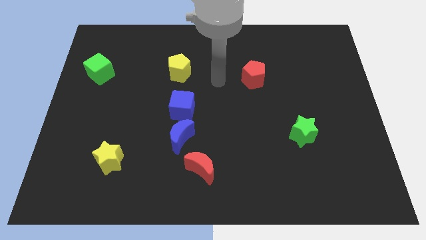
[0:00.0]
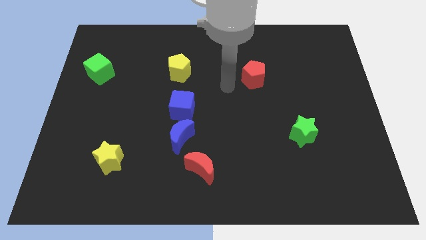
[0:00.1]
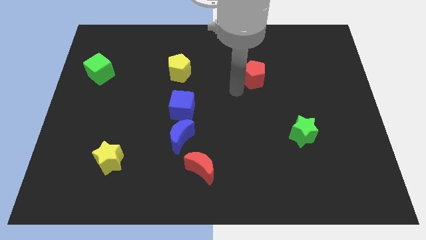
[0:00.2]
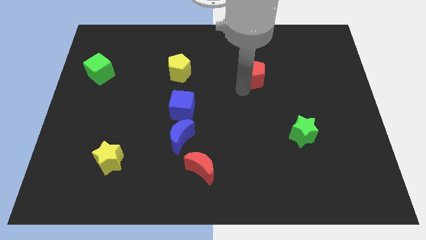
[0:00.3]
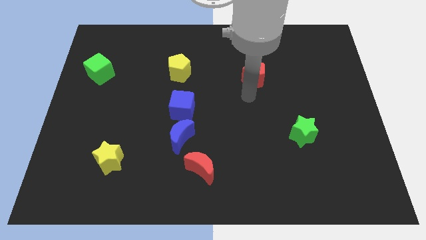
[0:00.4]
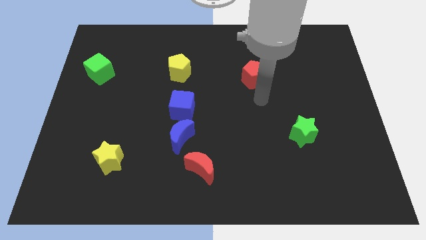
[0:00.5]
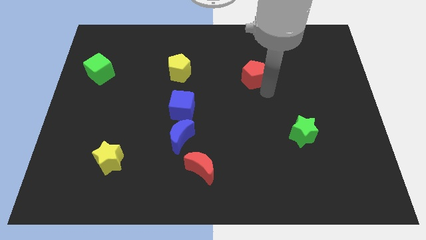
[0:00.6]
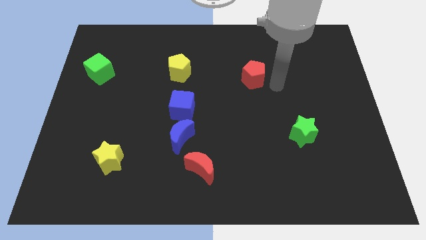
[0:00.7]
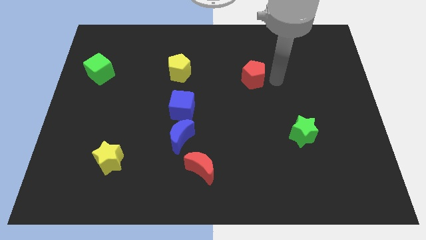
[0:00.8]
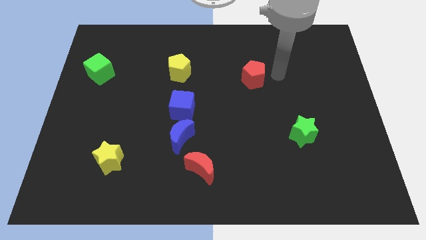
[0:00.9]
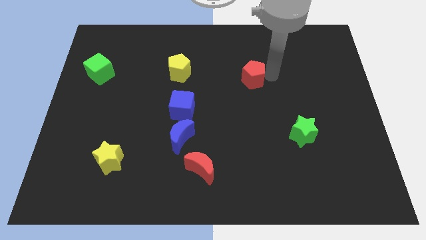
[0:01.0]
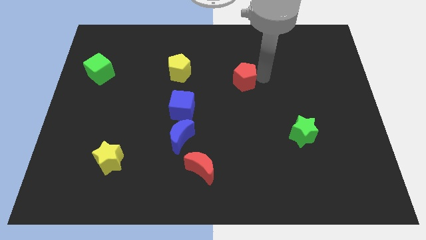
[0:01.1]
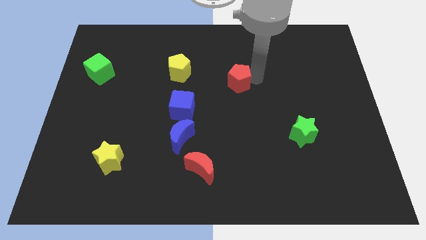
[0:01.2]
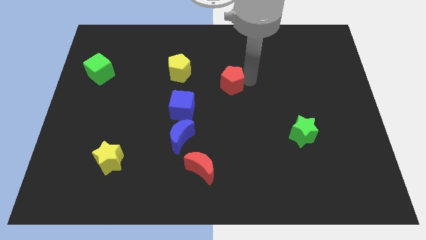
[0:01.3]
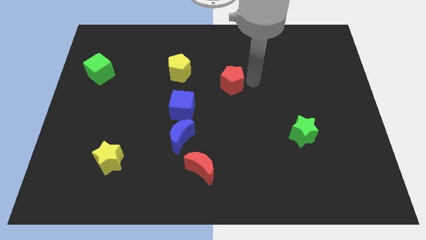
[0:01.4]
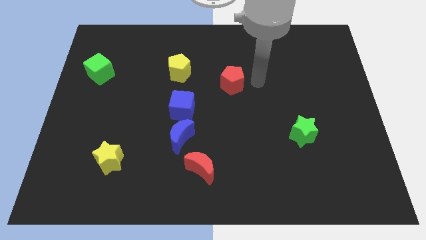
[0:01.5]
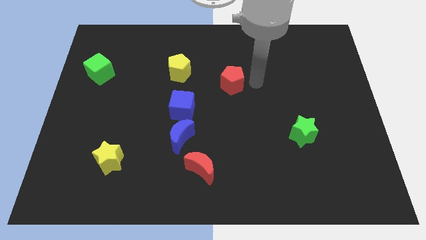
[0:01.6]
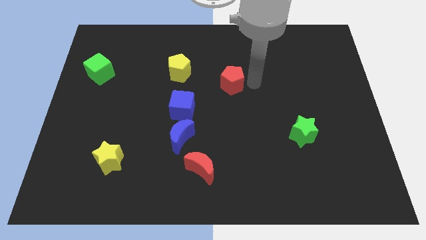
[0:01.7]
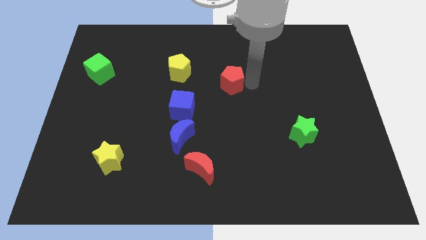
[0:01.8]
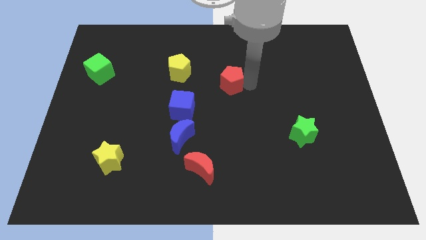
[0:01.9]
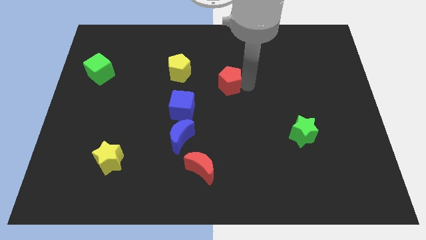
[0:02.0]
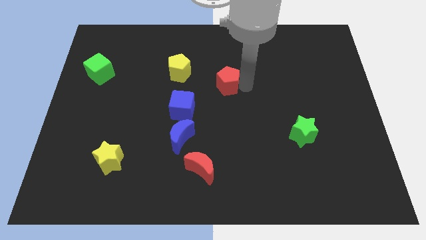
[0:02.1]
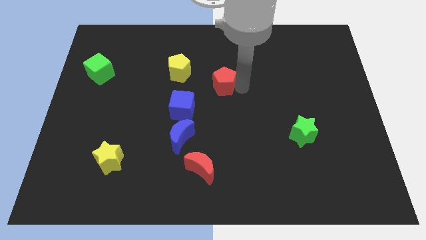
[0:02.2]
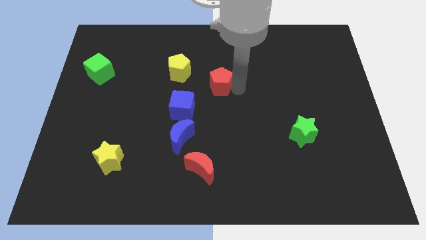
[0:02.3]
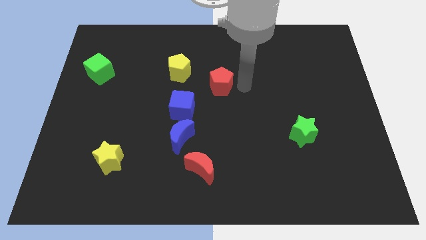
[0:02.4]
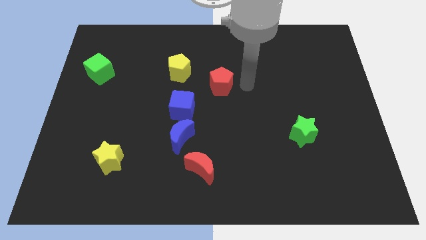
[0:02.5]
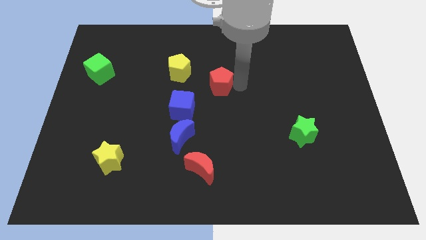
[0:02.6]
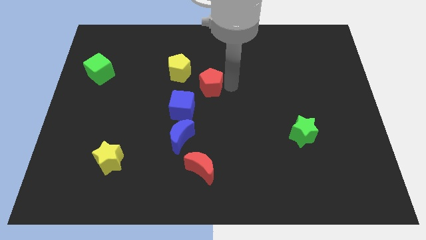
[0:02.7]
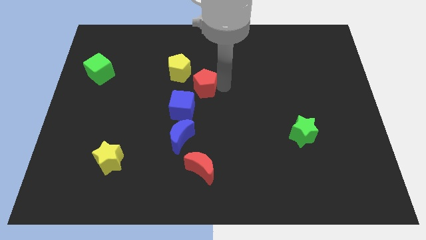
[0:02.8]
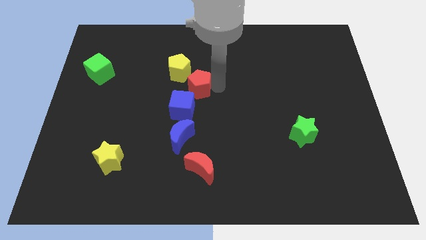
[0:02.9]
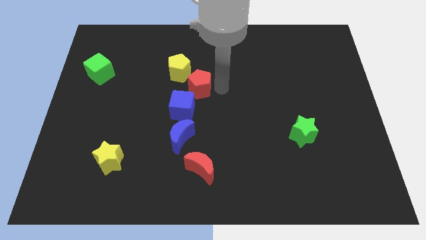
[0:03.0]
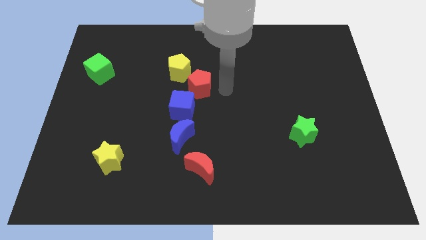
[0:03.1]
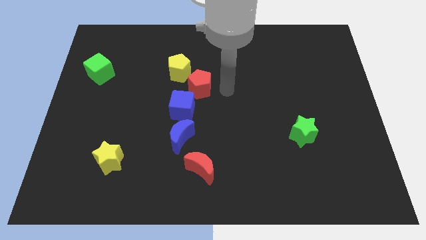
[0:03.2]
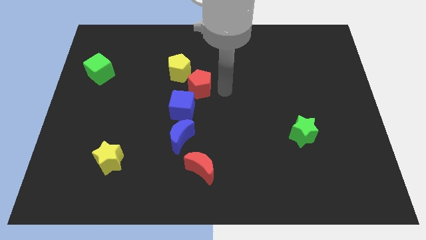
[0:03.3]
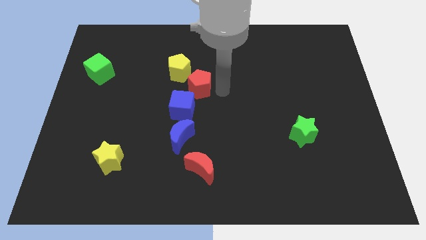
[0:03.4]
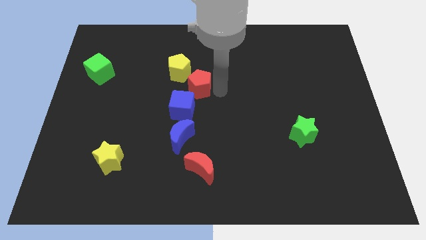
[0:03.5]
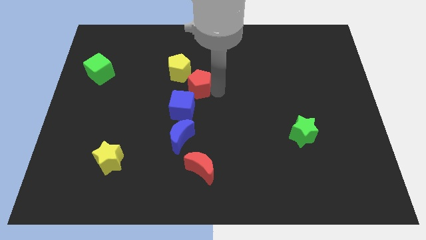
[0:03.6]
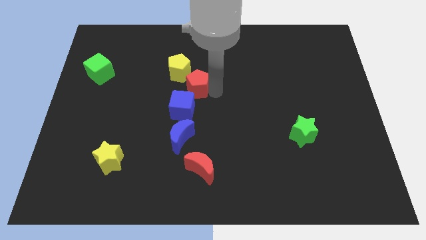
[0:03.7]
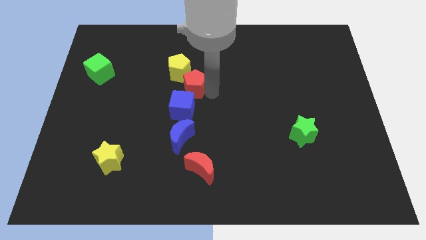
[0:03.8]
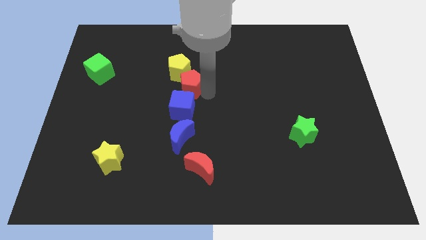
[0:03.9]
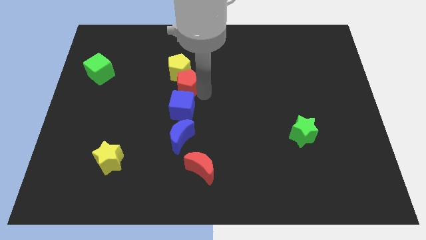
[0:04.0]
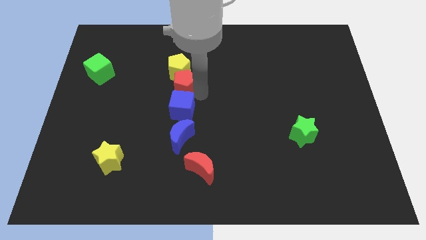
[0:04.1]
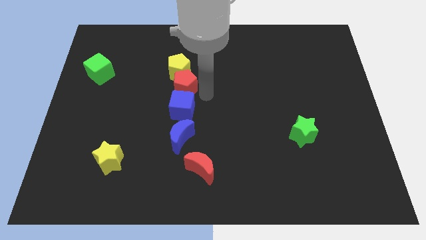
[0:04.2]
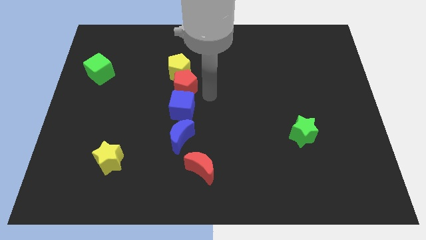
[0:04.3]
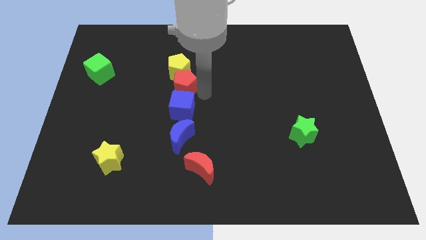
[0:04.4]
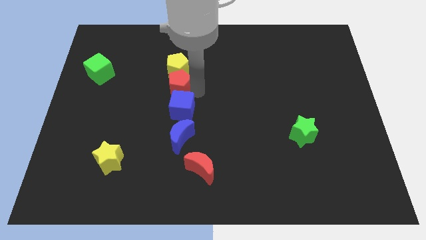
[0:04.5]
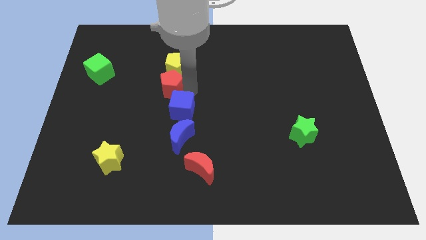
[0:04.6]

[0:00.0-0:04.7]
push the red pentagon to the left

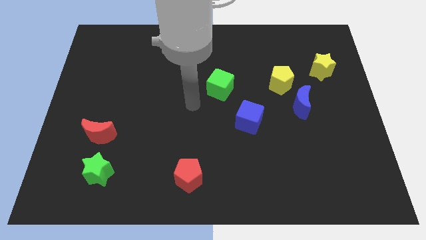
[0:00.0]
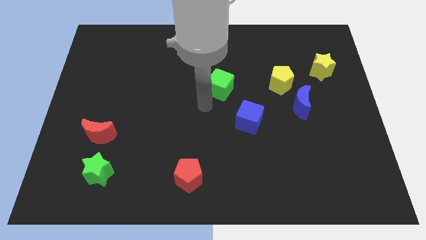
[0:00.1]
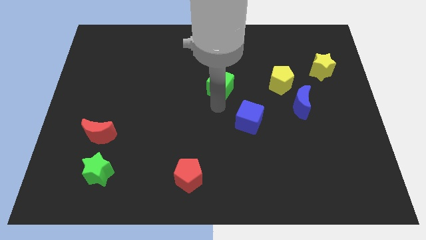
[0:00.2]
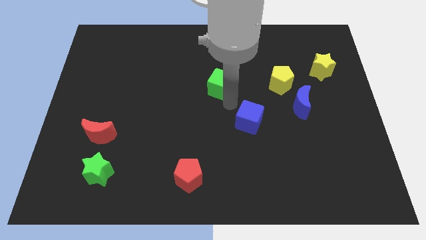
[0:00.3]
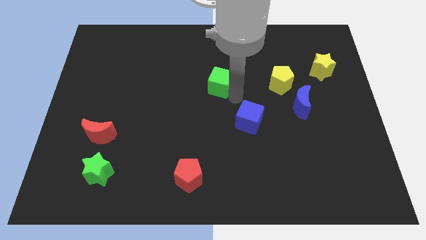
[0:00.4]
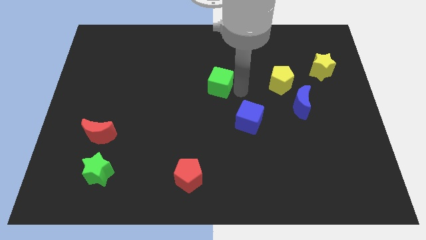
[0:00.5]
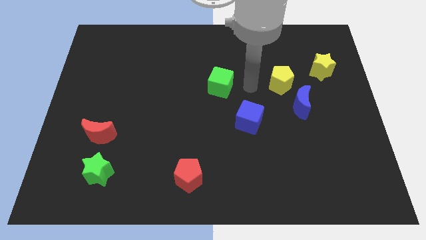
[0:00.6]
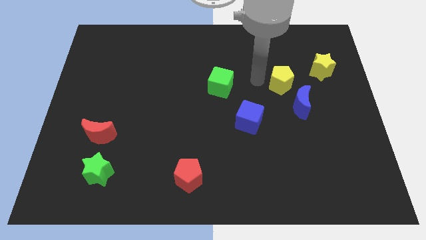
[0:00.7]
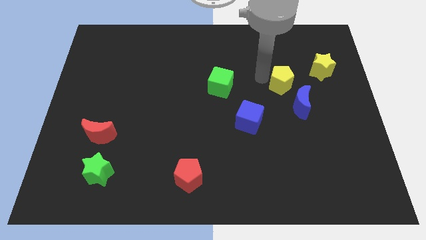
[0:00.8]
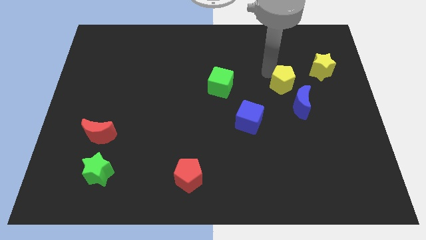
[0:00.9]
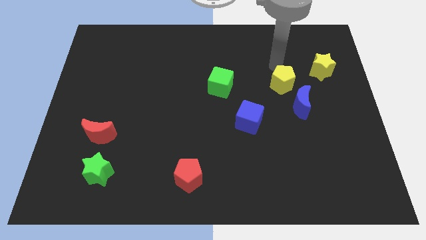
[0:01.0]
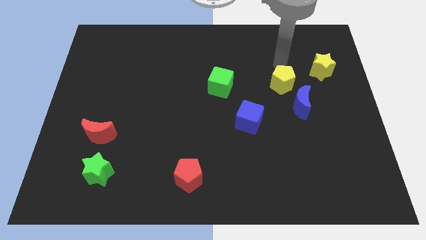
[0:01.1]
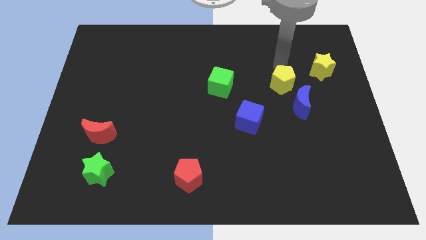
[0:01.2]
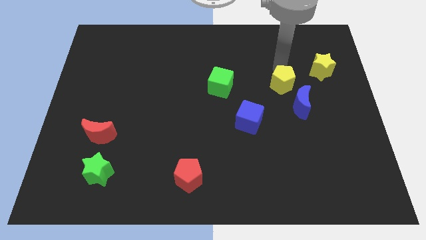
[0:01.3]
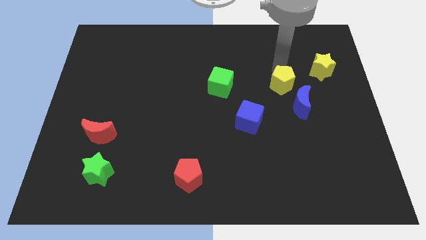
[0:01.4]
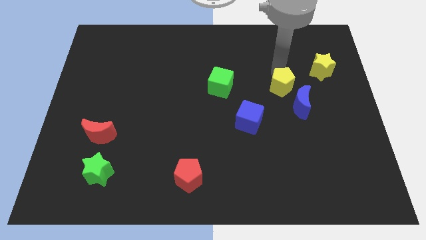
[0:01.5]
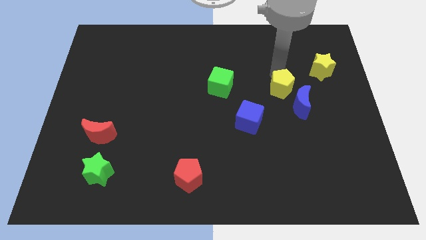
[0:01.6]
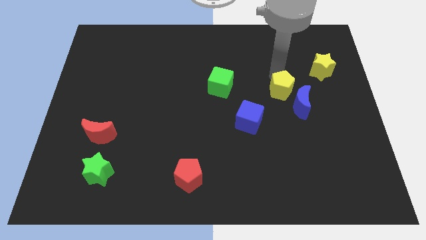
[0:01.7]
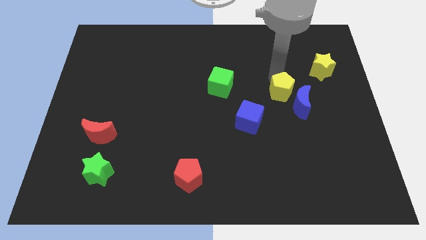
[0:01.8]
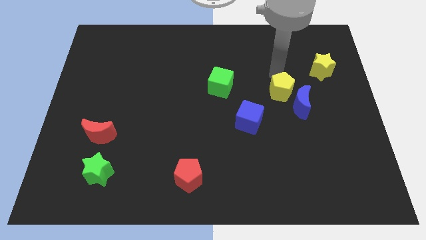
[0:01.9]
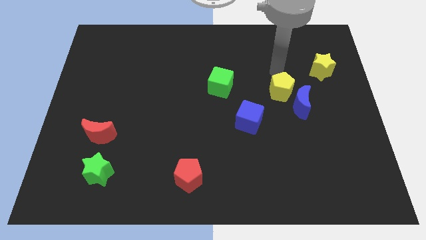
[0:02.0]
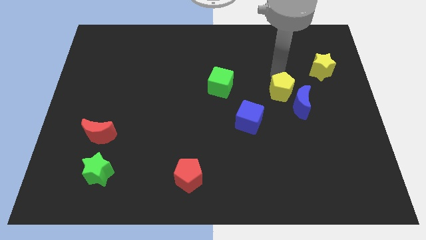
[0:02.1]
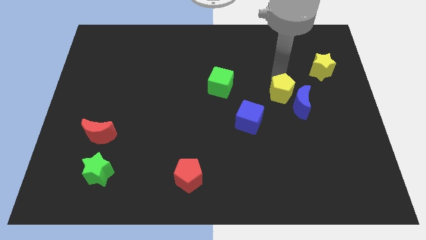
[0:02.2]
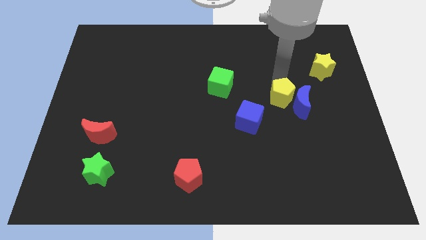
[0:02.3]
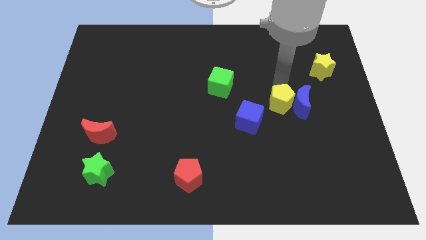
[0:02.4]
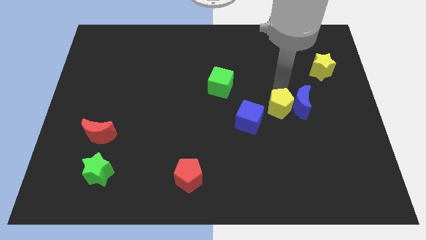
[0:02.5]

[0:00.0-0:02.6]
move the yellow pentagon down a little bit

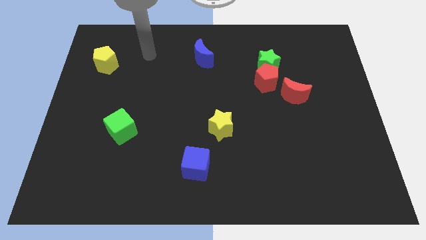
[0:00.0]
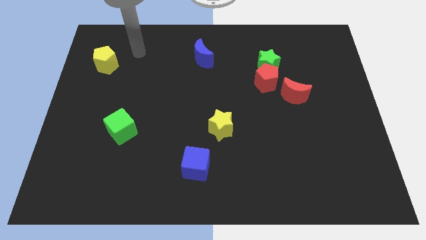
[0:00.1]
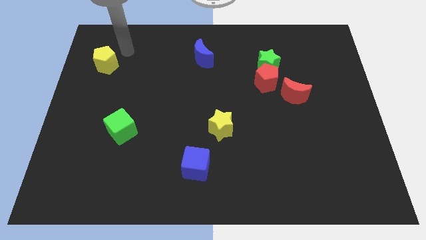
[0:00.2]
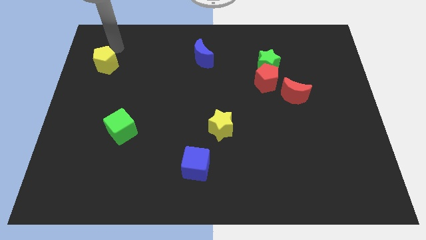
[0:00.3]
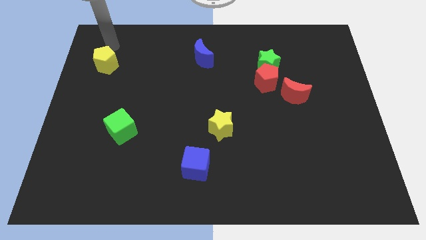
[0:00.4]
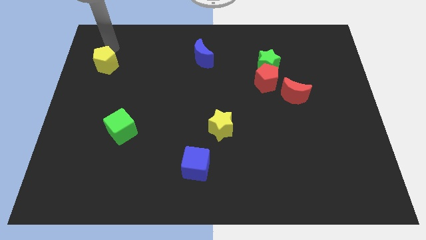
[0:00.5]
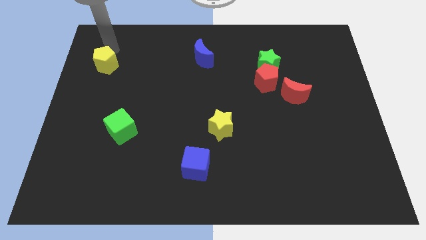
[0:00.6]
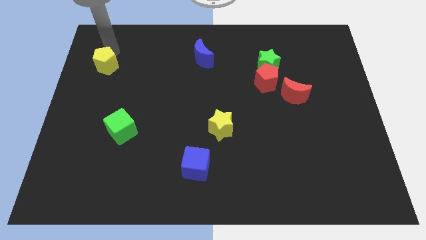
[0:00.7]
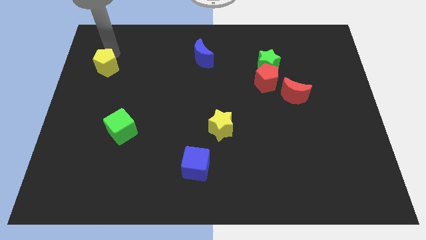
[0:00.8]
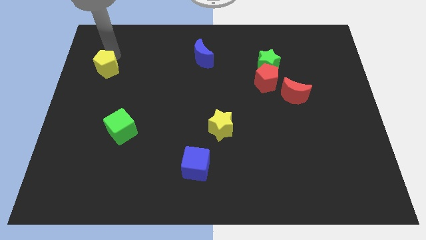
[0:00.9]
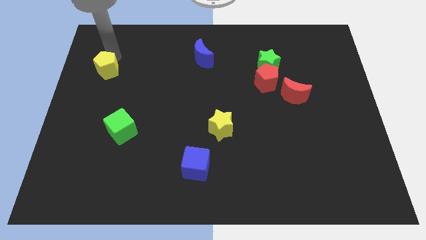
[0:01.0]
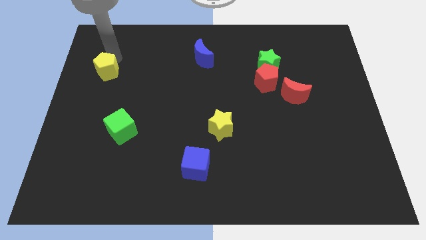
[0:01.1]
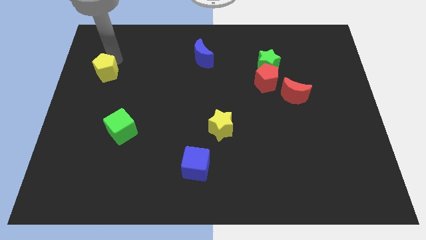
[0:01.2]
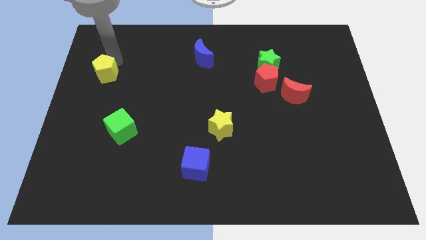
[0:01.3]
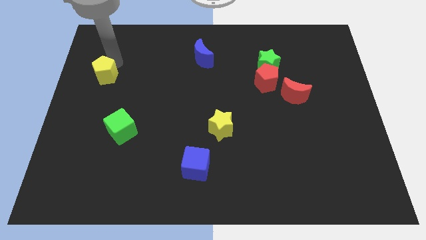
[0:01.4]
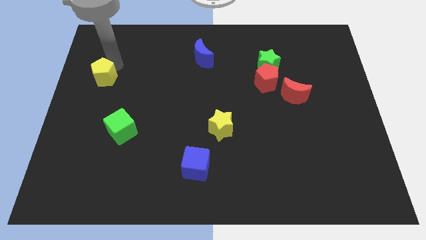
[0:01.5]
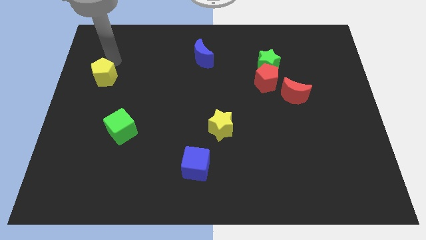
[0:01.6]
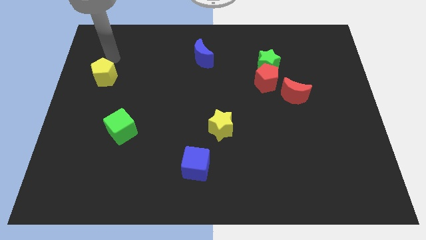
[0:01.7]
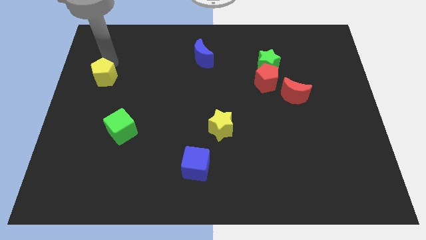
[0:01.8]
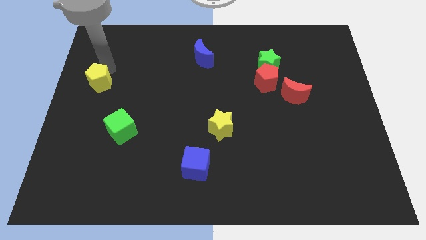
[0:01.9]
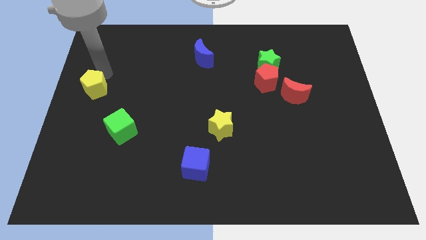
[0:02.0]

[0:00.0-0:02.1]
slide the yellow pentagon downwards somewhat
